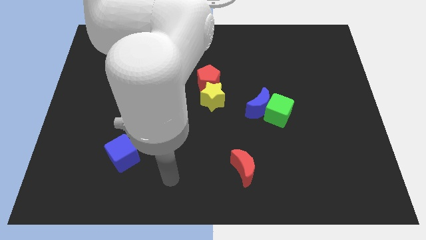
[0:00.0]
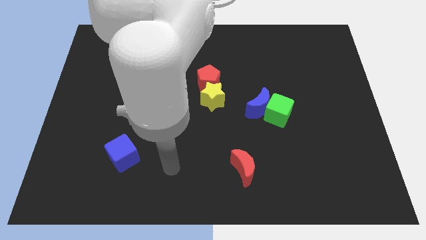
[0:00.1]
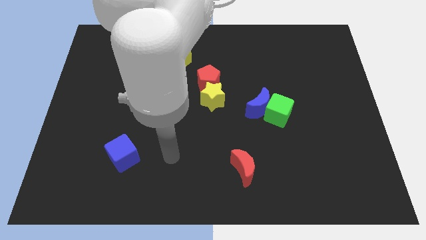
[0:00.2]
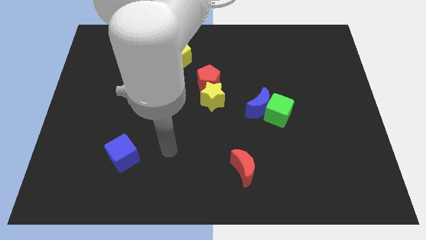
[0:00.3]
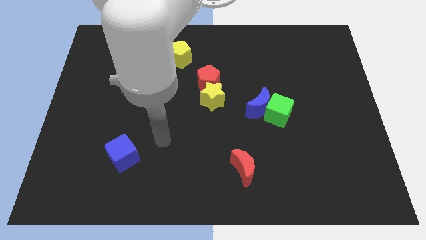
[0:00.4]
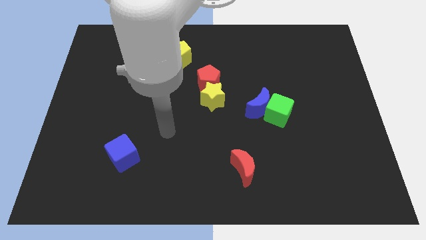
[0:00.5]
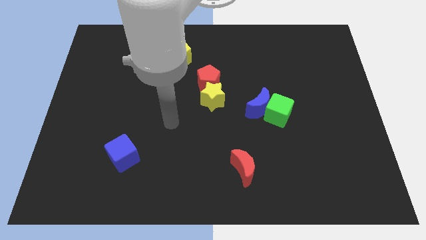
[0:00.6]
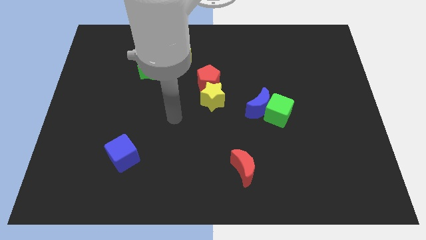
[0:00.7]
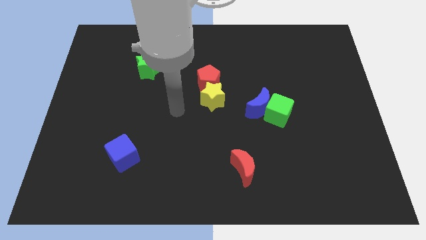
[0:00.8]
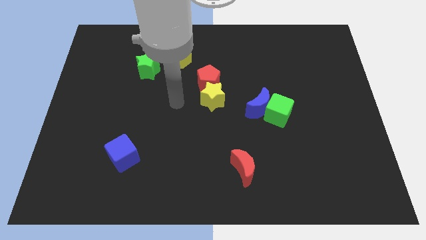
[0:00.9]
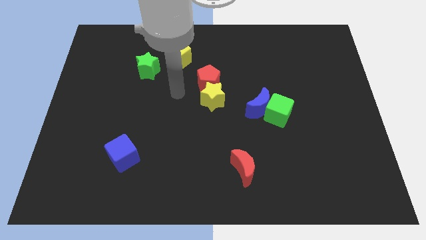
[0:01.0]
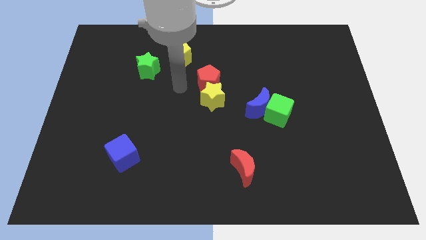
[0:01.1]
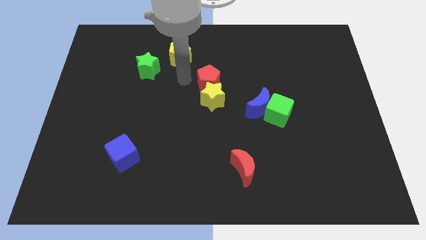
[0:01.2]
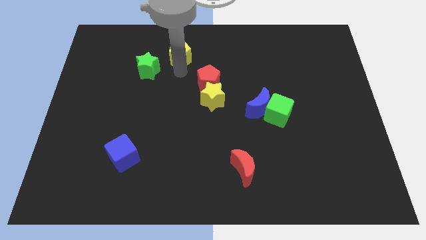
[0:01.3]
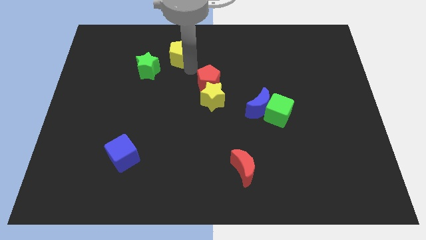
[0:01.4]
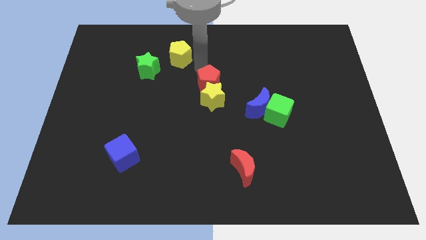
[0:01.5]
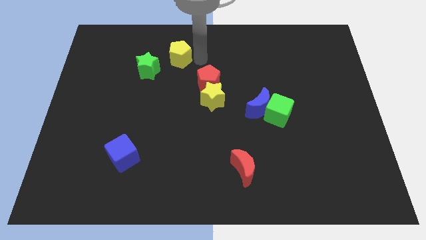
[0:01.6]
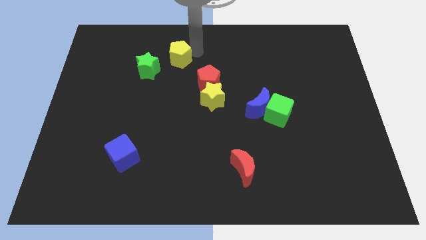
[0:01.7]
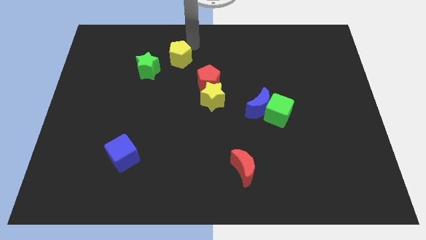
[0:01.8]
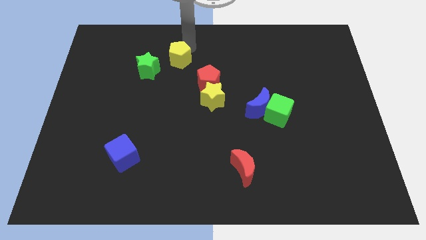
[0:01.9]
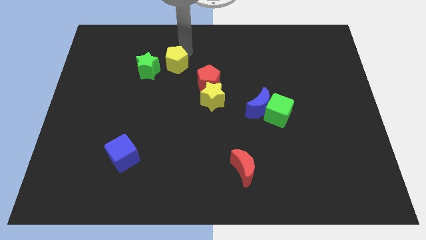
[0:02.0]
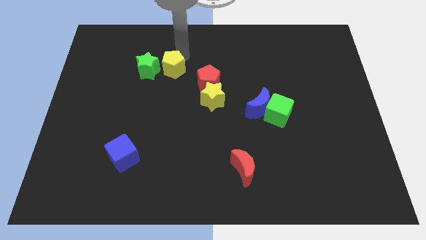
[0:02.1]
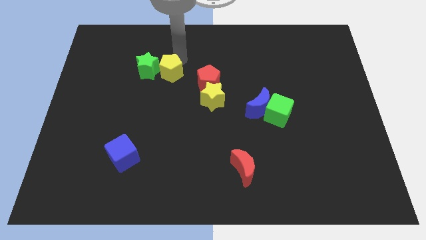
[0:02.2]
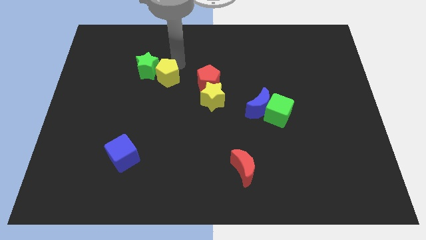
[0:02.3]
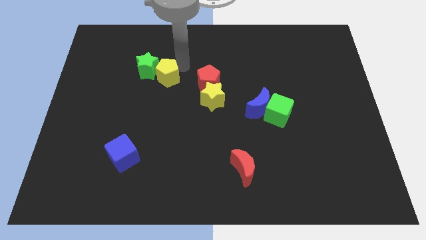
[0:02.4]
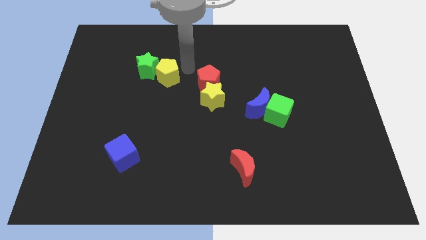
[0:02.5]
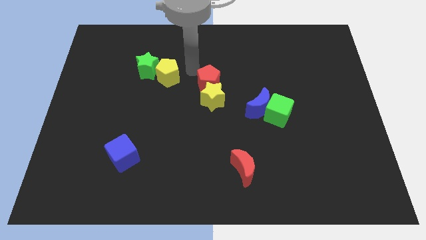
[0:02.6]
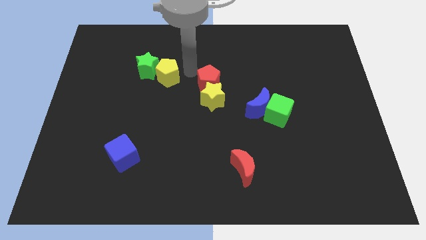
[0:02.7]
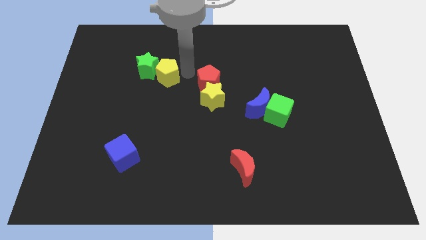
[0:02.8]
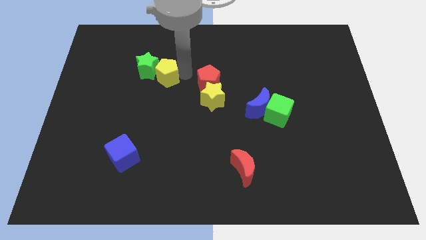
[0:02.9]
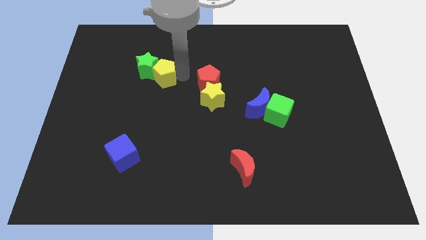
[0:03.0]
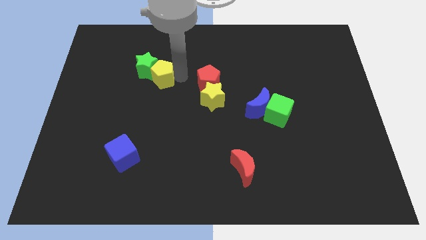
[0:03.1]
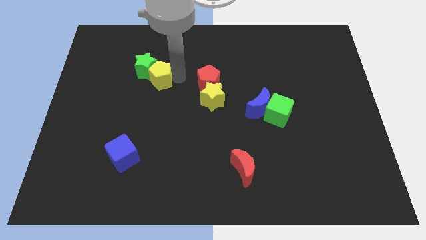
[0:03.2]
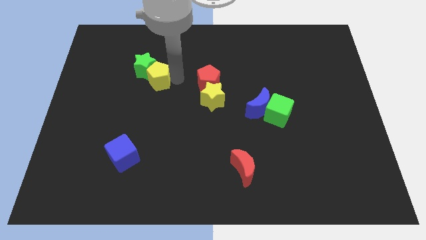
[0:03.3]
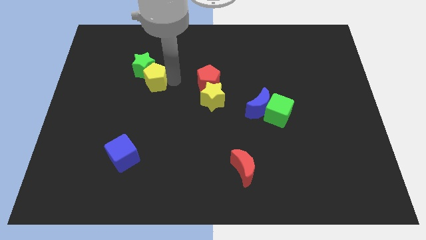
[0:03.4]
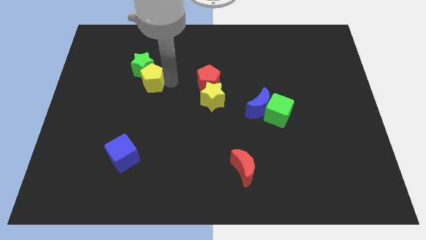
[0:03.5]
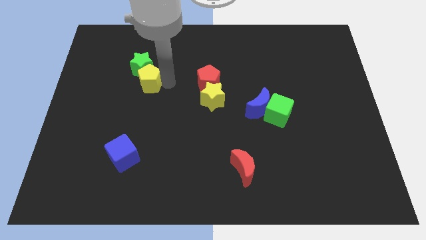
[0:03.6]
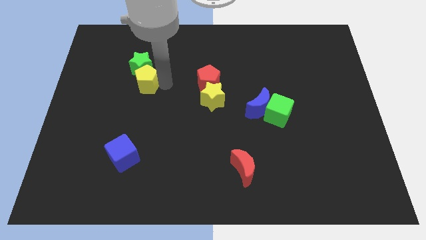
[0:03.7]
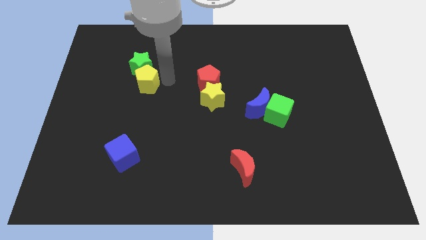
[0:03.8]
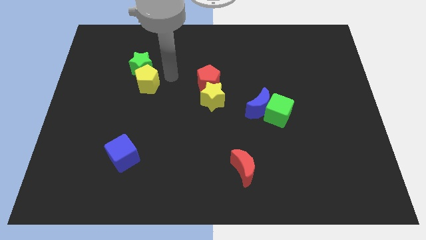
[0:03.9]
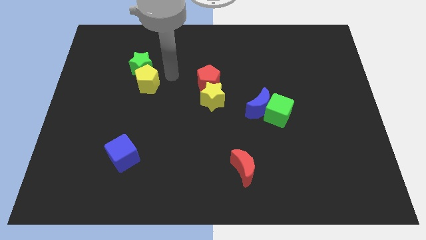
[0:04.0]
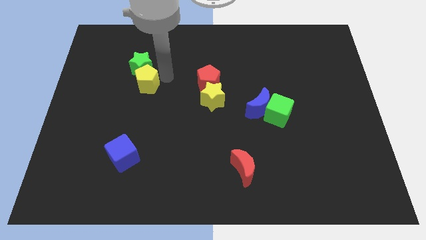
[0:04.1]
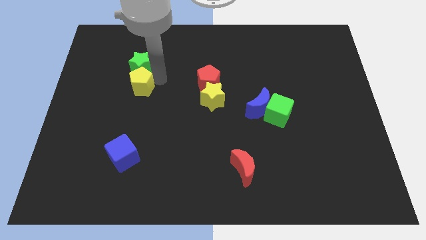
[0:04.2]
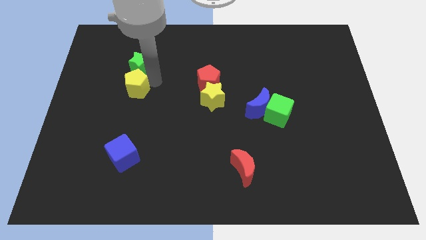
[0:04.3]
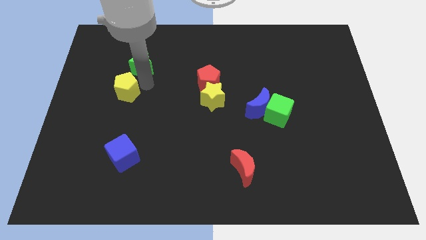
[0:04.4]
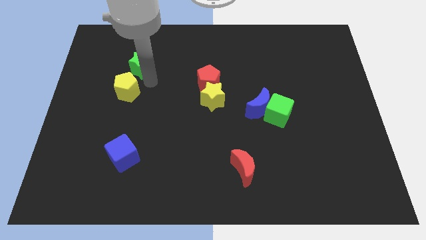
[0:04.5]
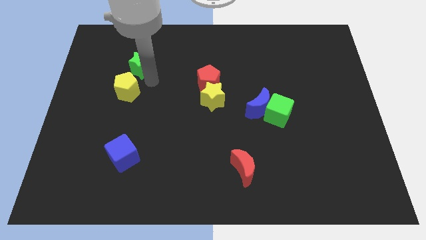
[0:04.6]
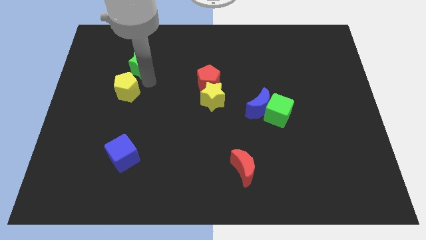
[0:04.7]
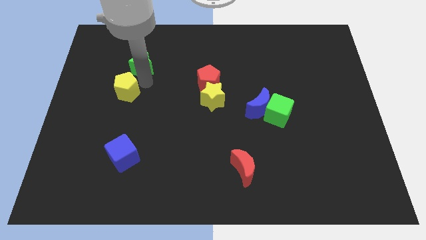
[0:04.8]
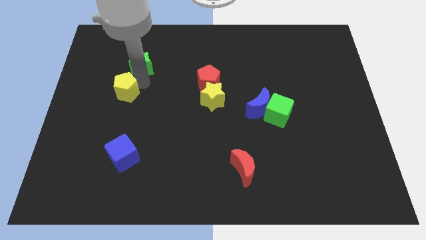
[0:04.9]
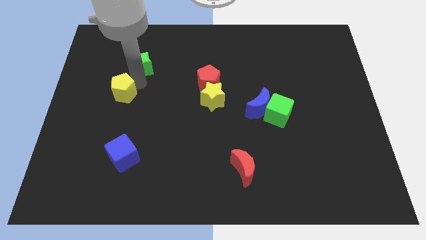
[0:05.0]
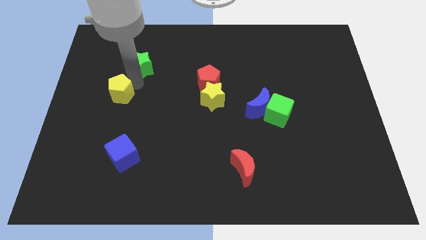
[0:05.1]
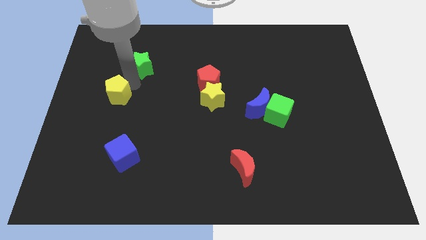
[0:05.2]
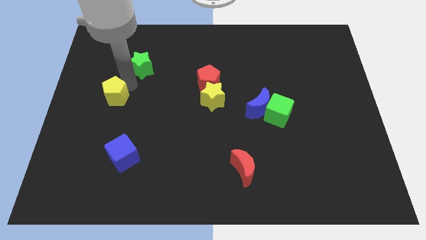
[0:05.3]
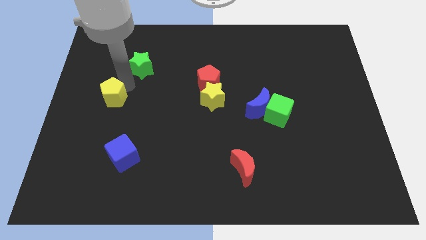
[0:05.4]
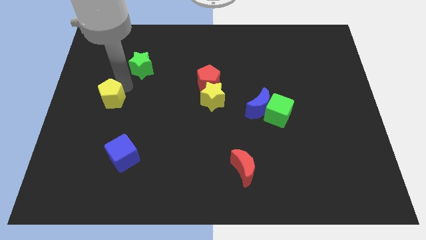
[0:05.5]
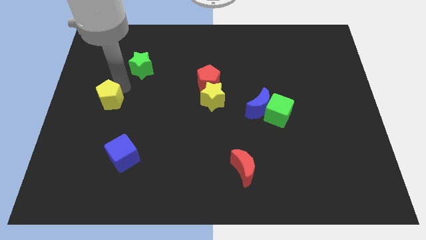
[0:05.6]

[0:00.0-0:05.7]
move the yellow pentagon to the left side

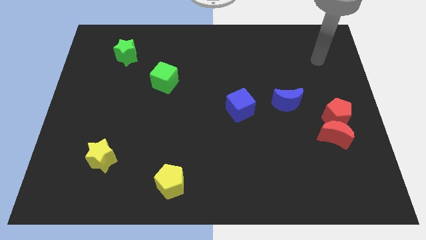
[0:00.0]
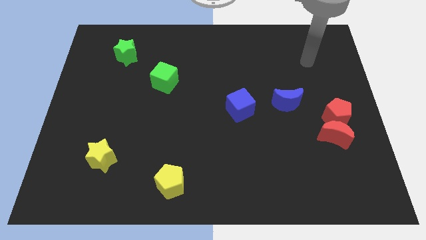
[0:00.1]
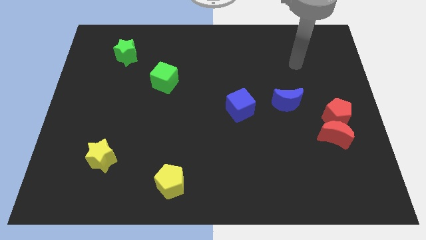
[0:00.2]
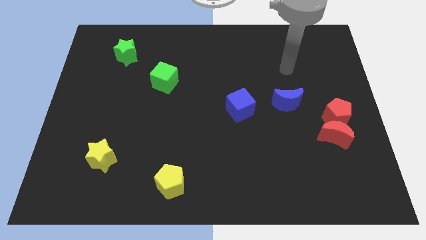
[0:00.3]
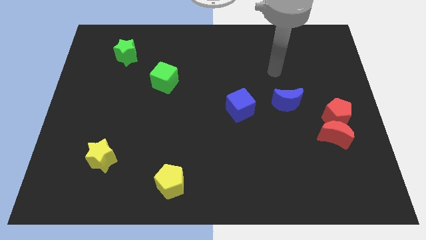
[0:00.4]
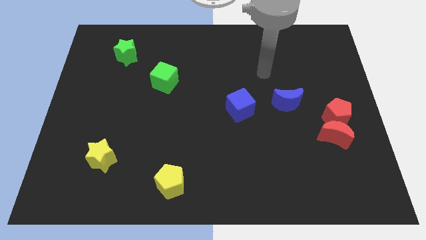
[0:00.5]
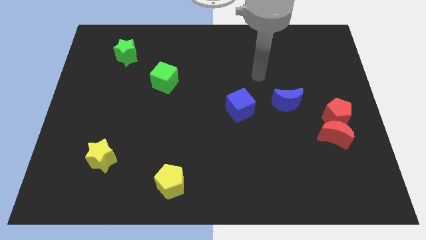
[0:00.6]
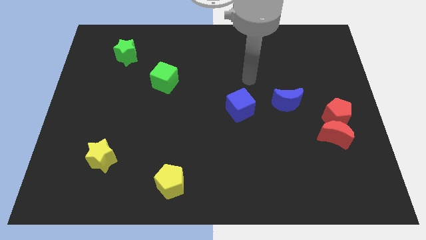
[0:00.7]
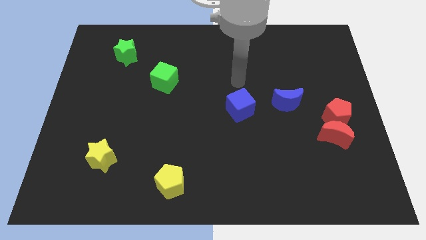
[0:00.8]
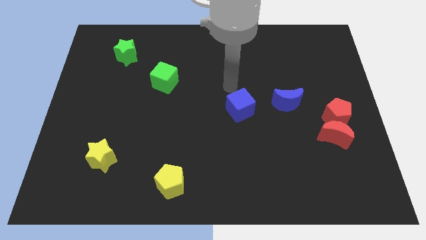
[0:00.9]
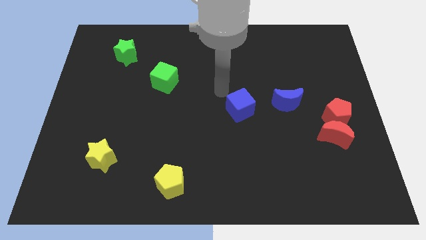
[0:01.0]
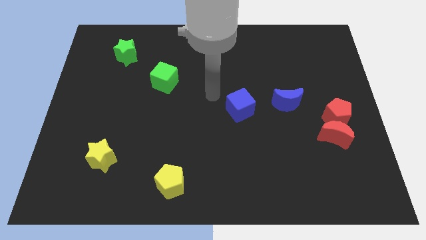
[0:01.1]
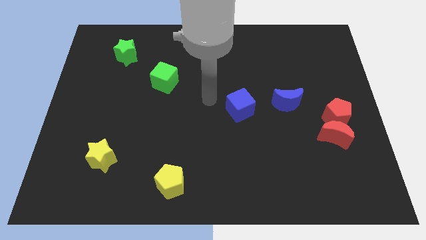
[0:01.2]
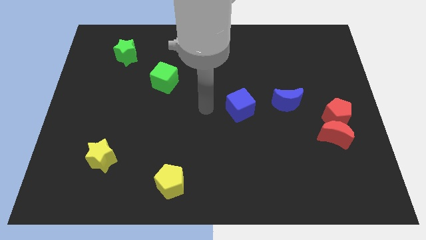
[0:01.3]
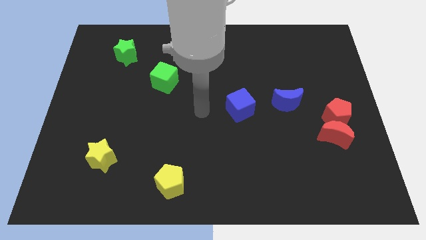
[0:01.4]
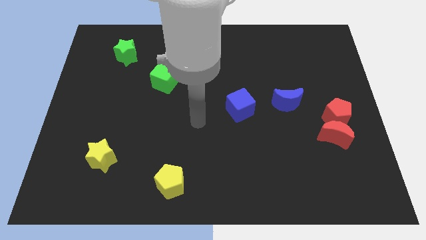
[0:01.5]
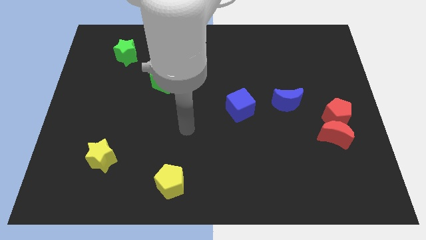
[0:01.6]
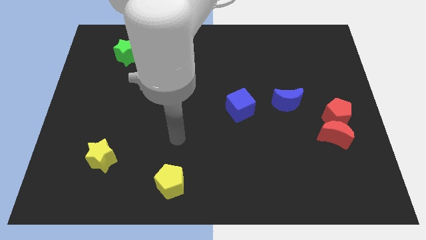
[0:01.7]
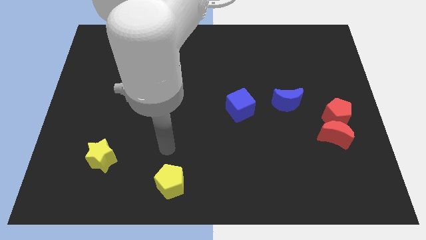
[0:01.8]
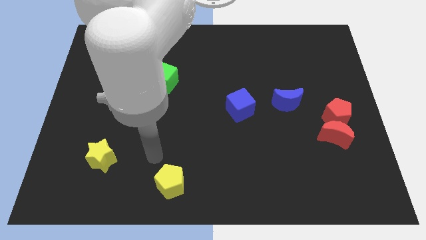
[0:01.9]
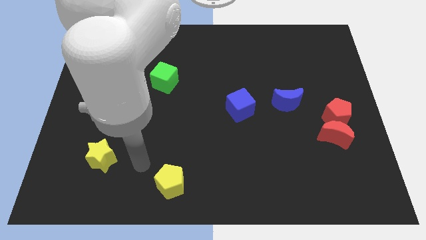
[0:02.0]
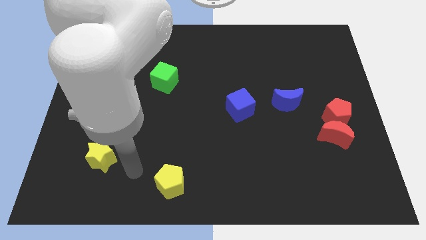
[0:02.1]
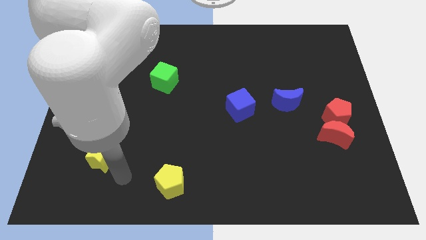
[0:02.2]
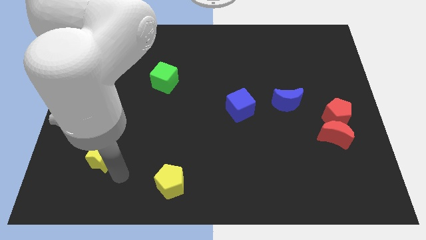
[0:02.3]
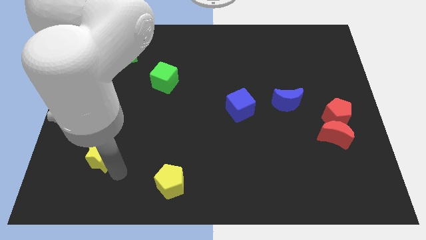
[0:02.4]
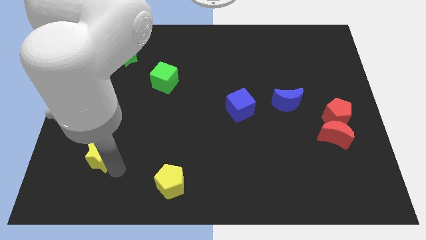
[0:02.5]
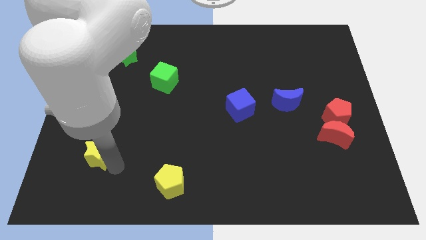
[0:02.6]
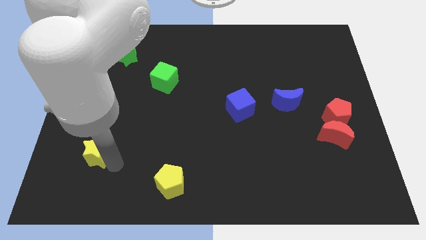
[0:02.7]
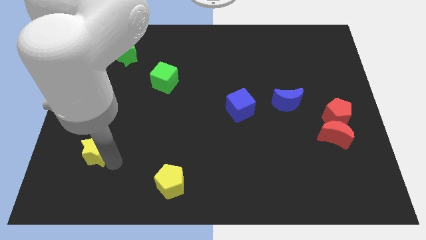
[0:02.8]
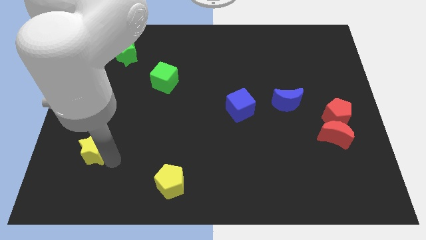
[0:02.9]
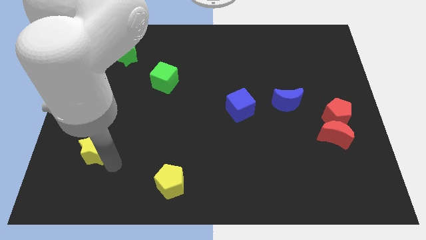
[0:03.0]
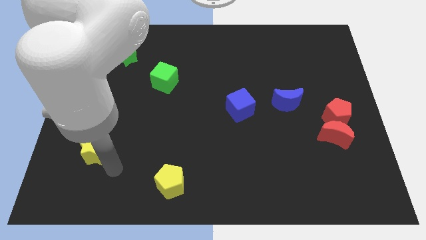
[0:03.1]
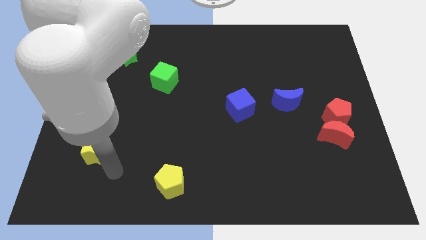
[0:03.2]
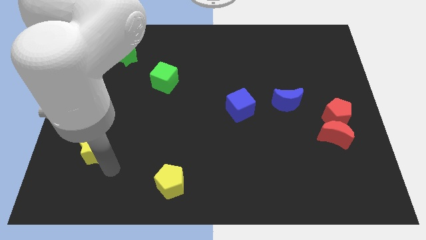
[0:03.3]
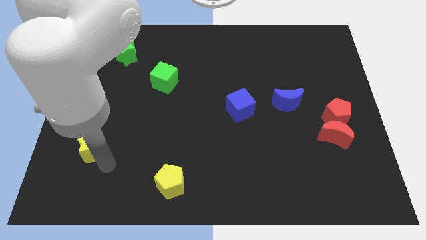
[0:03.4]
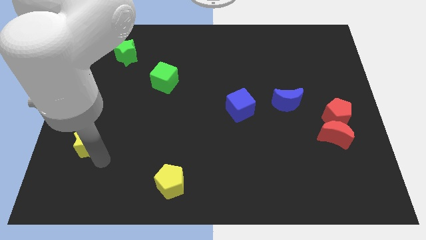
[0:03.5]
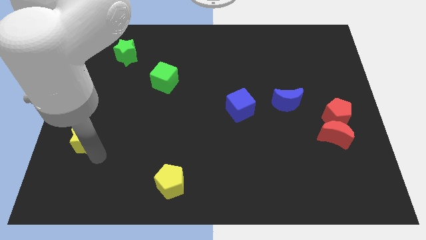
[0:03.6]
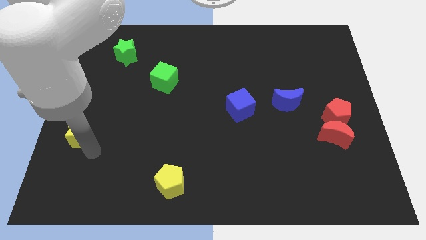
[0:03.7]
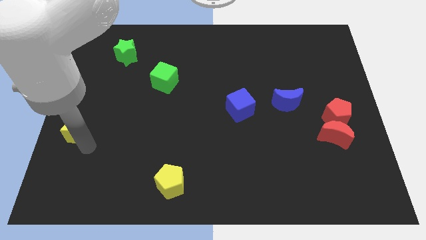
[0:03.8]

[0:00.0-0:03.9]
put the yellow star to the left side of the board
